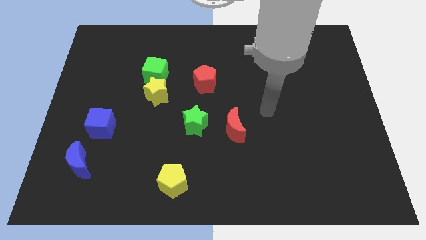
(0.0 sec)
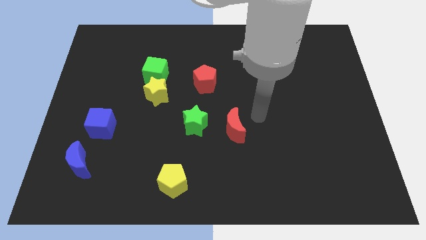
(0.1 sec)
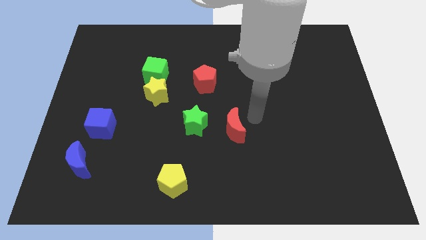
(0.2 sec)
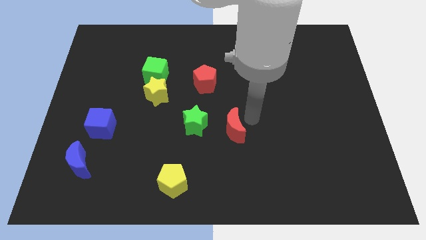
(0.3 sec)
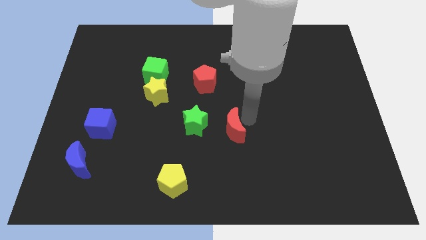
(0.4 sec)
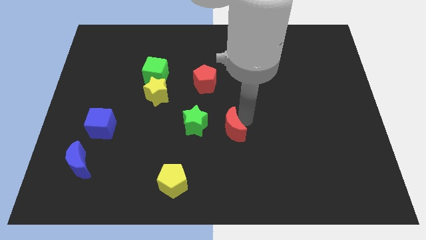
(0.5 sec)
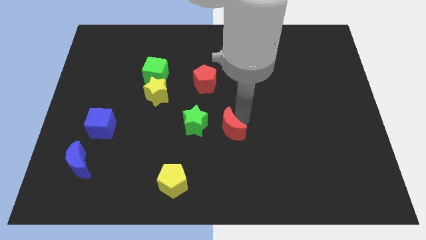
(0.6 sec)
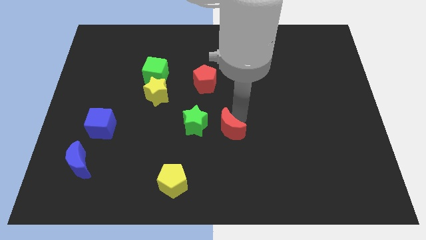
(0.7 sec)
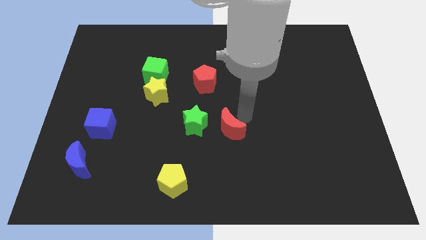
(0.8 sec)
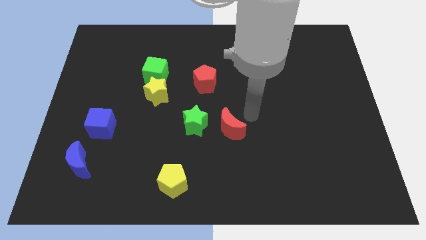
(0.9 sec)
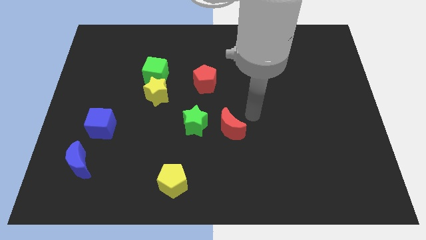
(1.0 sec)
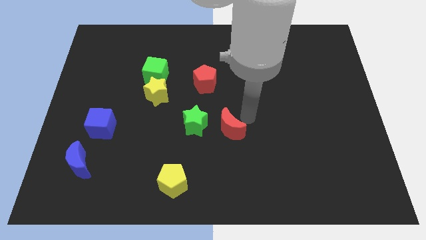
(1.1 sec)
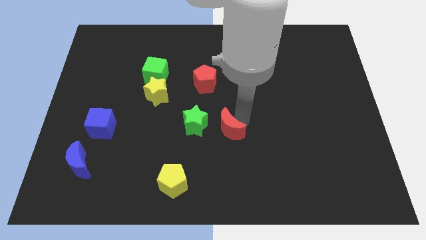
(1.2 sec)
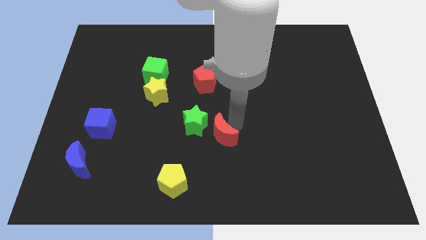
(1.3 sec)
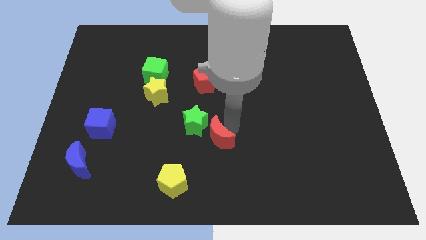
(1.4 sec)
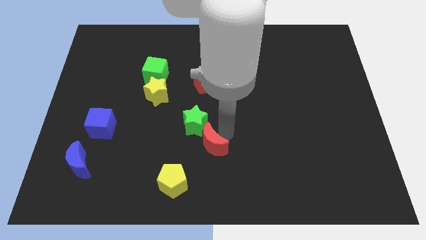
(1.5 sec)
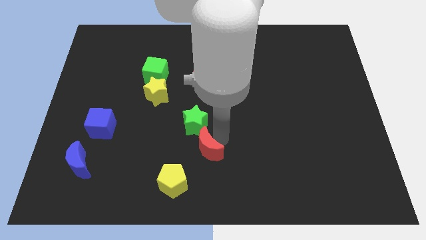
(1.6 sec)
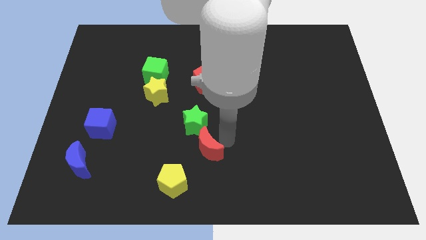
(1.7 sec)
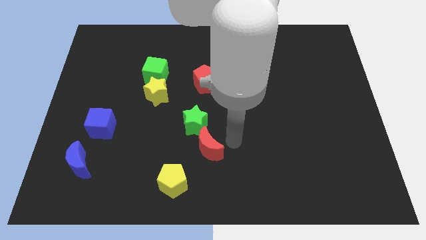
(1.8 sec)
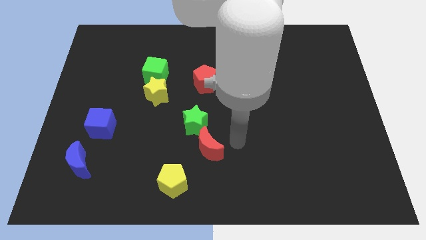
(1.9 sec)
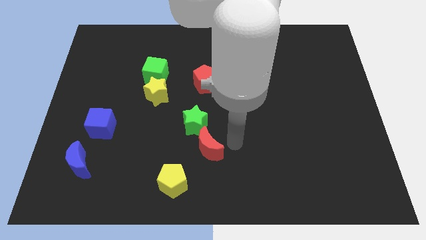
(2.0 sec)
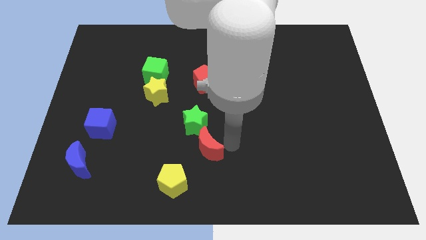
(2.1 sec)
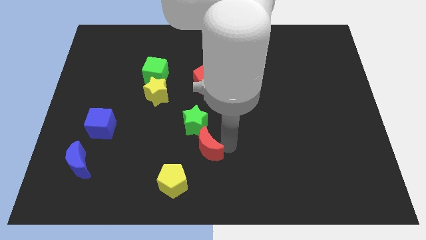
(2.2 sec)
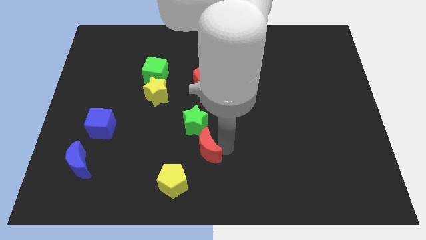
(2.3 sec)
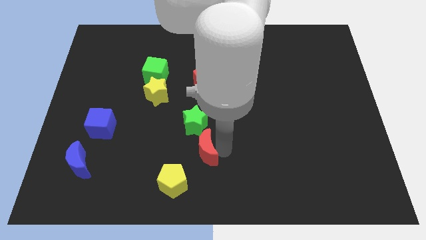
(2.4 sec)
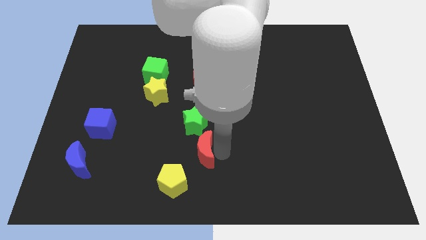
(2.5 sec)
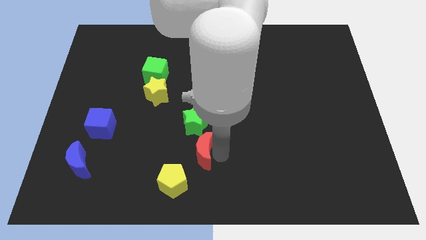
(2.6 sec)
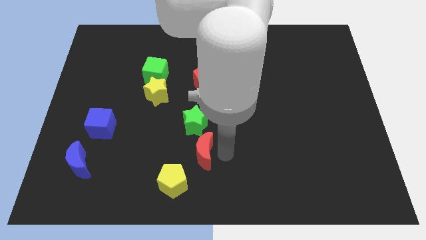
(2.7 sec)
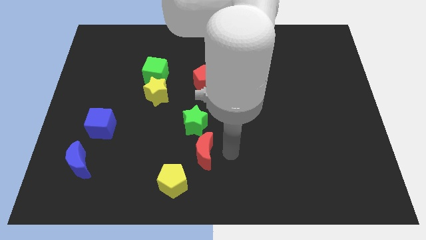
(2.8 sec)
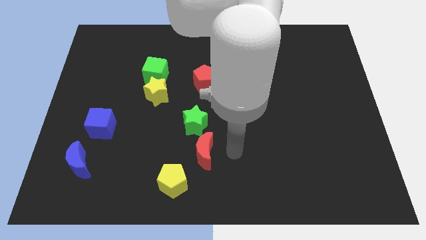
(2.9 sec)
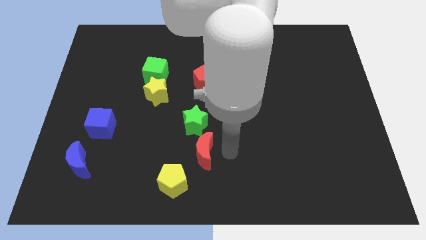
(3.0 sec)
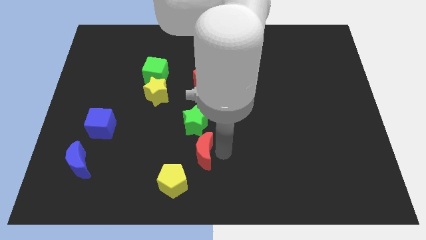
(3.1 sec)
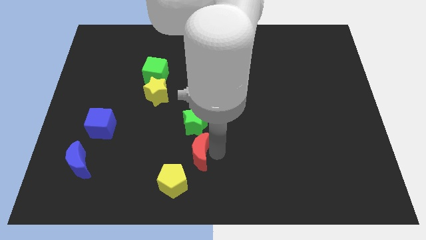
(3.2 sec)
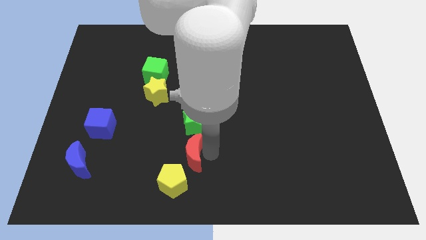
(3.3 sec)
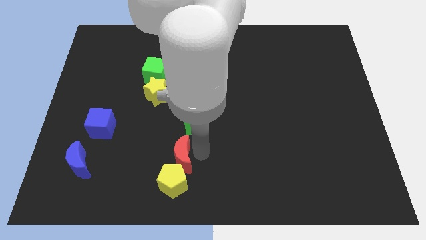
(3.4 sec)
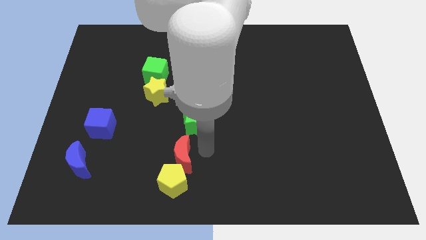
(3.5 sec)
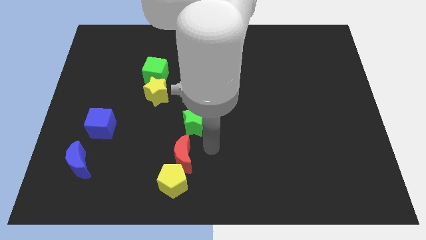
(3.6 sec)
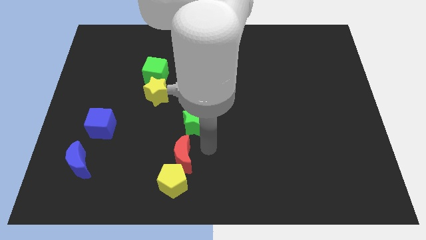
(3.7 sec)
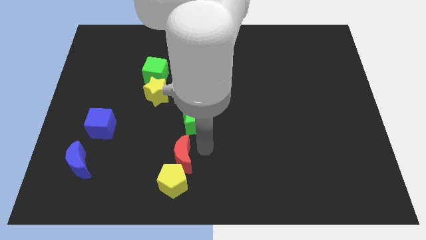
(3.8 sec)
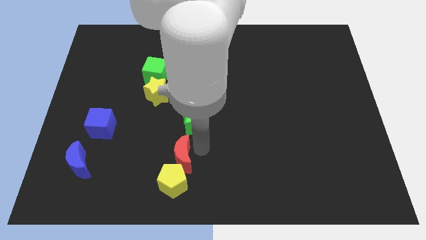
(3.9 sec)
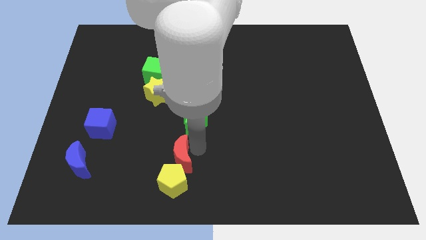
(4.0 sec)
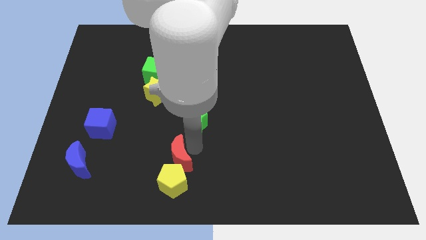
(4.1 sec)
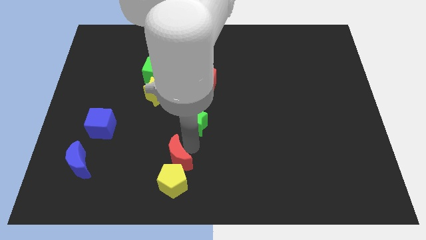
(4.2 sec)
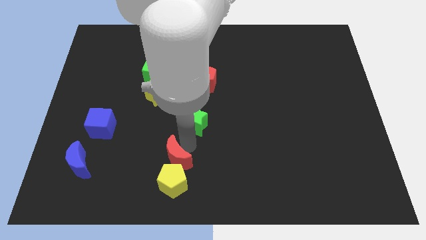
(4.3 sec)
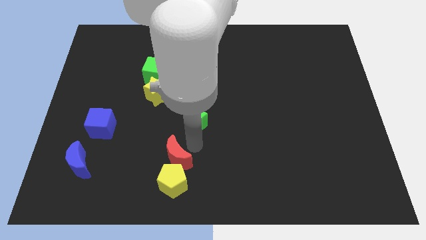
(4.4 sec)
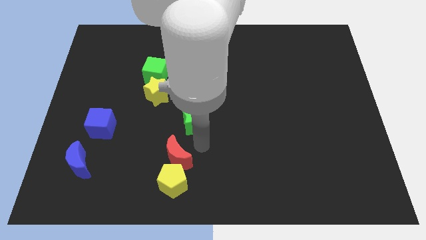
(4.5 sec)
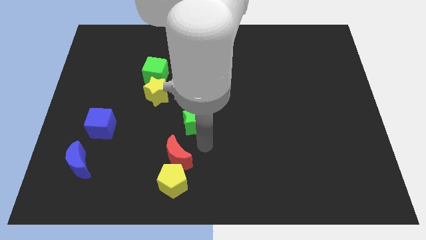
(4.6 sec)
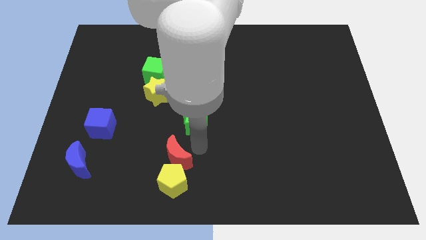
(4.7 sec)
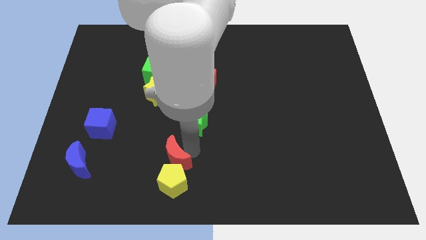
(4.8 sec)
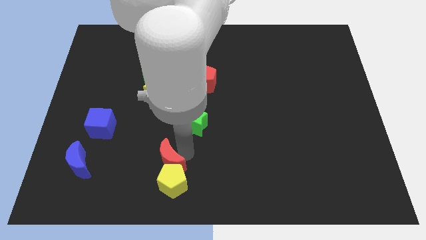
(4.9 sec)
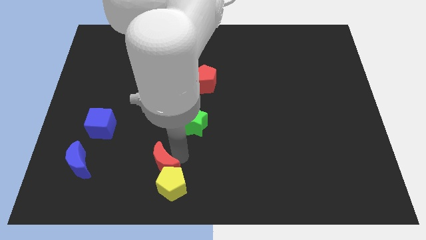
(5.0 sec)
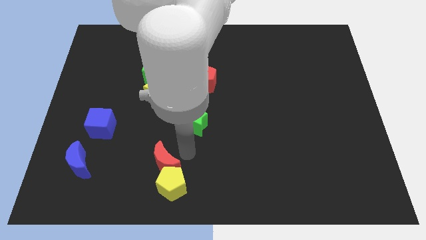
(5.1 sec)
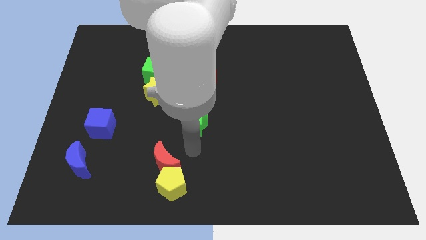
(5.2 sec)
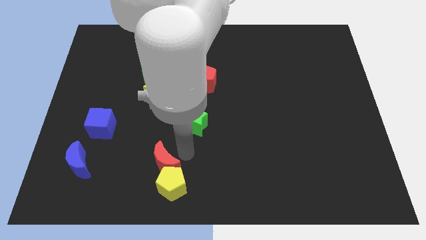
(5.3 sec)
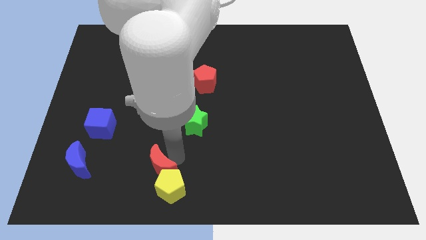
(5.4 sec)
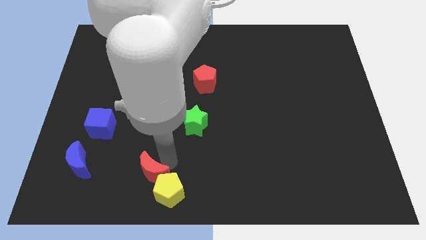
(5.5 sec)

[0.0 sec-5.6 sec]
move the red moon to the left side of the yellow pentagon
